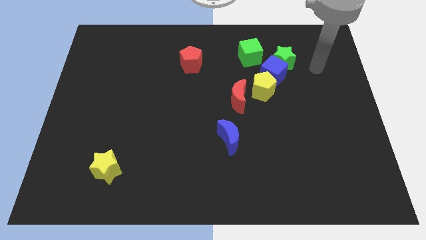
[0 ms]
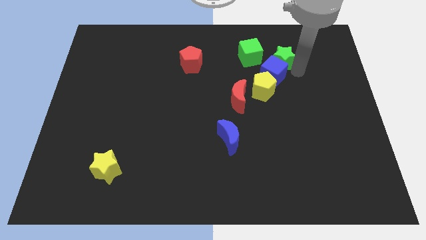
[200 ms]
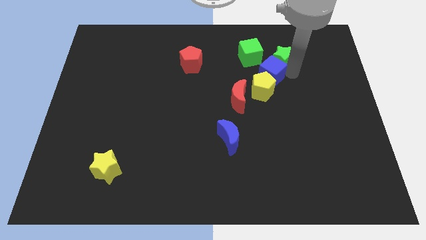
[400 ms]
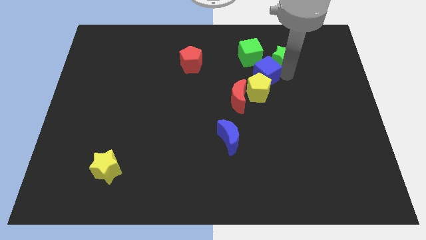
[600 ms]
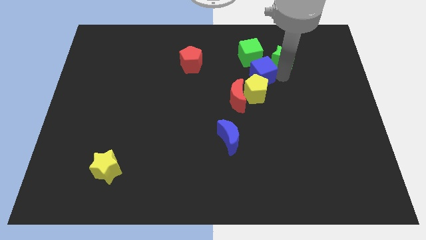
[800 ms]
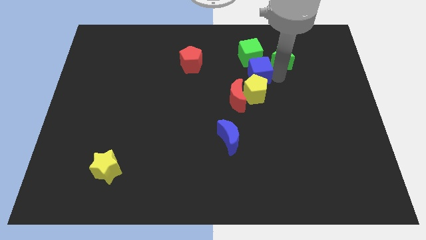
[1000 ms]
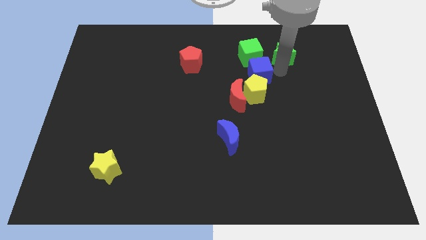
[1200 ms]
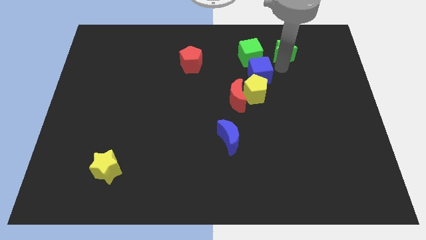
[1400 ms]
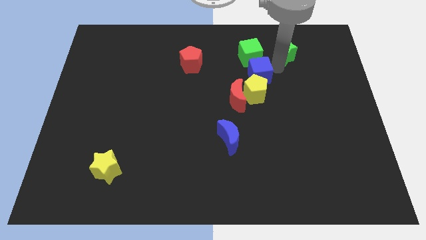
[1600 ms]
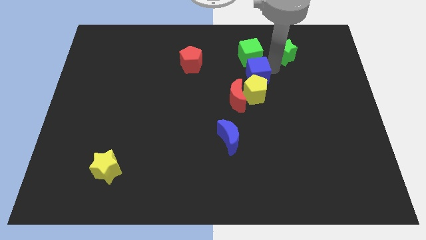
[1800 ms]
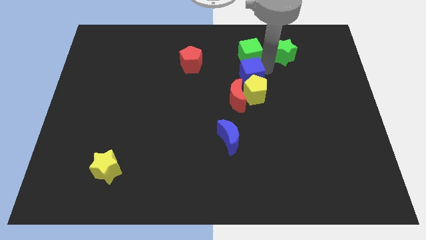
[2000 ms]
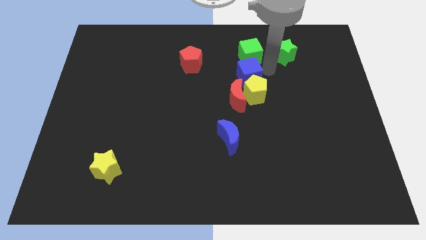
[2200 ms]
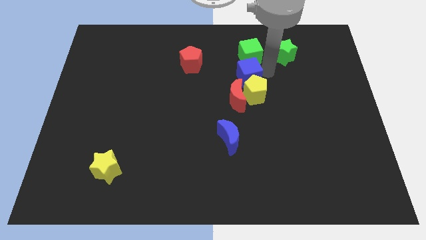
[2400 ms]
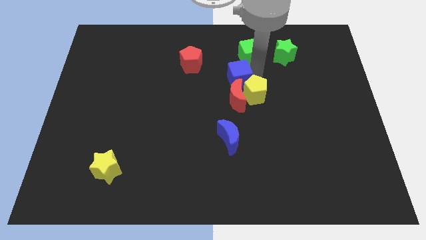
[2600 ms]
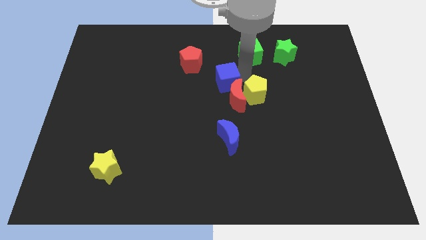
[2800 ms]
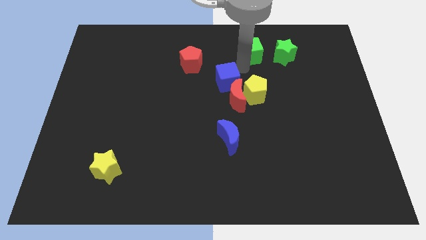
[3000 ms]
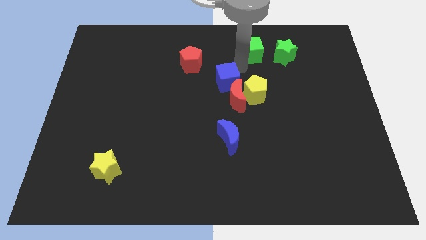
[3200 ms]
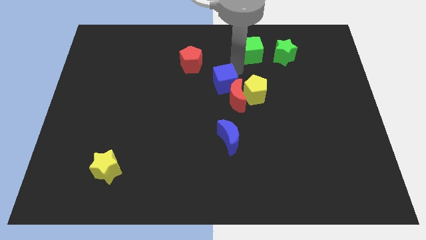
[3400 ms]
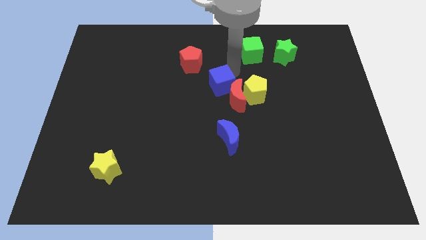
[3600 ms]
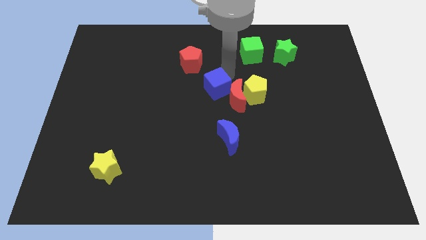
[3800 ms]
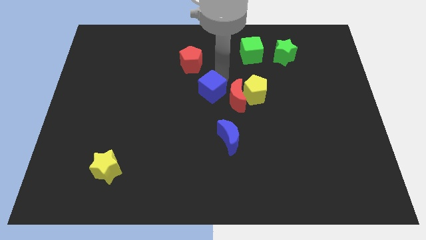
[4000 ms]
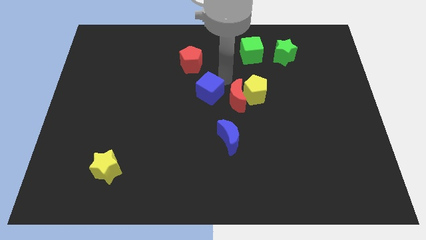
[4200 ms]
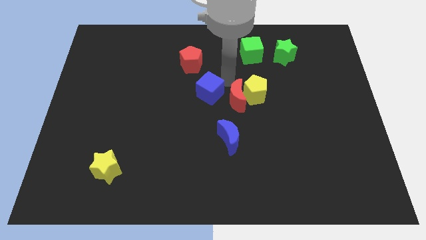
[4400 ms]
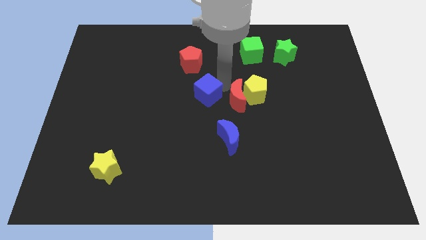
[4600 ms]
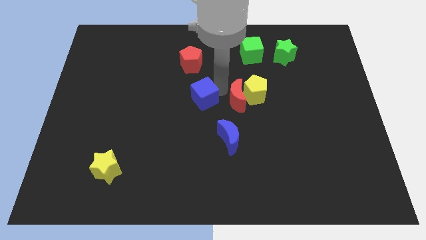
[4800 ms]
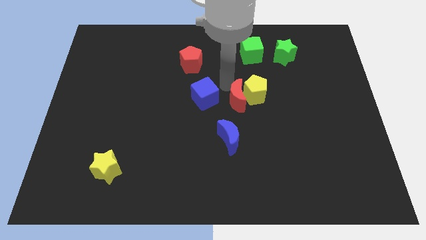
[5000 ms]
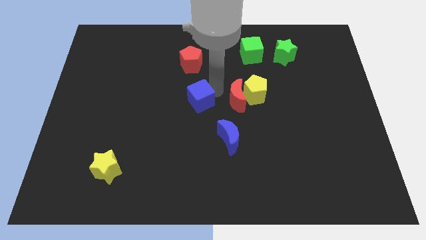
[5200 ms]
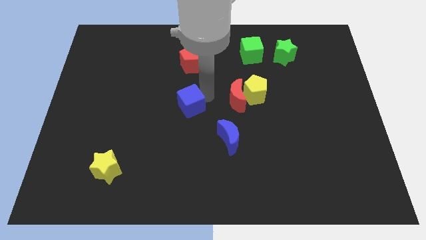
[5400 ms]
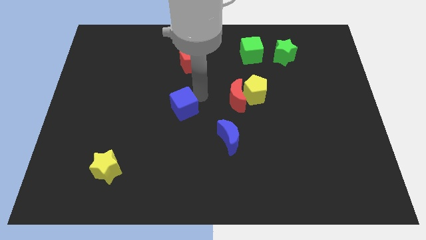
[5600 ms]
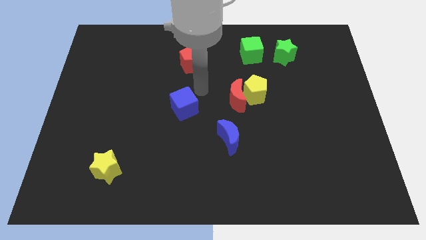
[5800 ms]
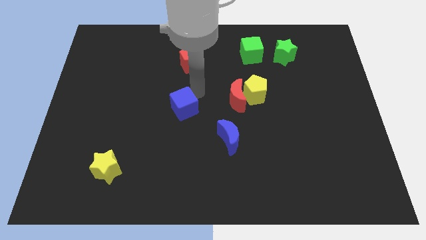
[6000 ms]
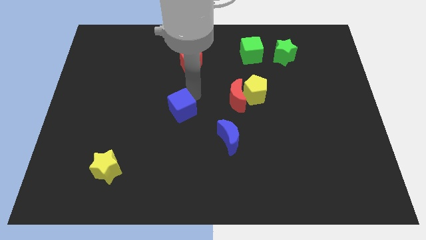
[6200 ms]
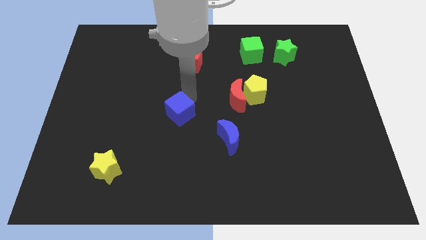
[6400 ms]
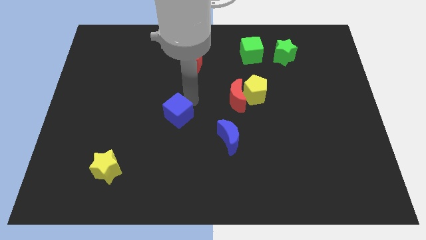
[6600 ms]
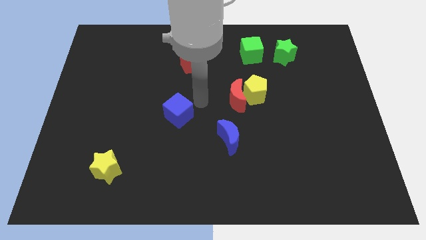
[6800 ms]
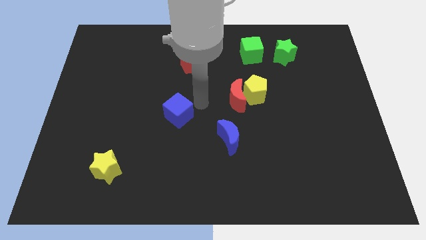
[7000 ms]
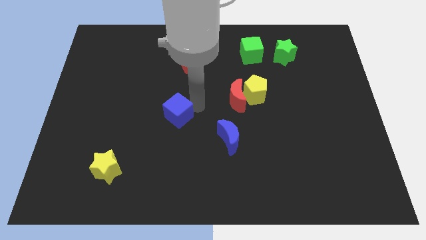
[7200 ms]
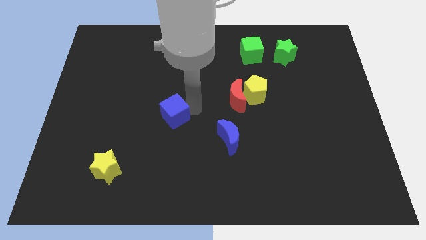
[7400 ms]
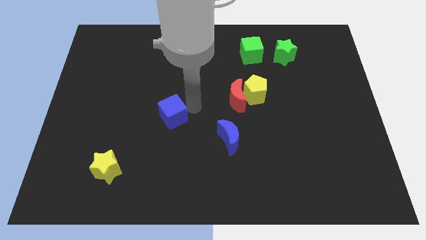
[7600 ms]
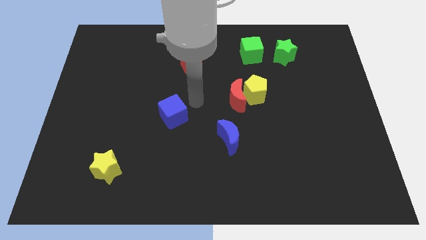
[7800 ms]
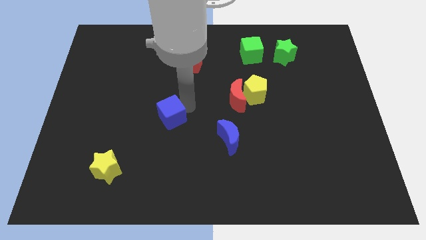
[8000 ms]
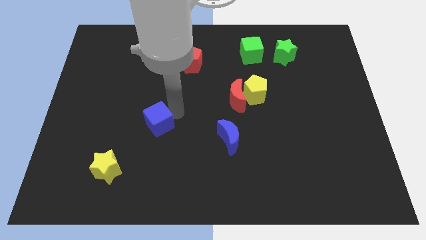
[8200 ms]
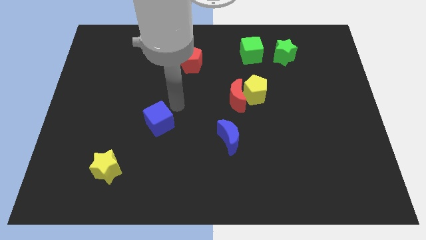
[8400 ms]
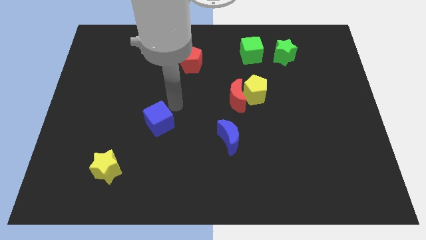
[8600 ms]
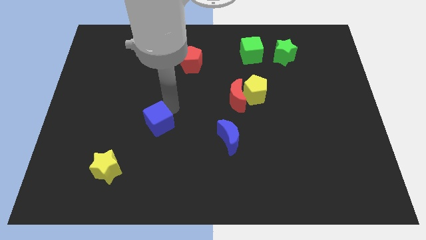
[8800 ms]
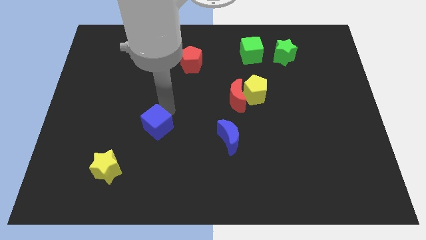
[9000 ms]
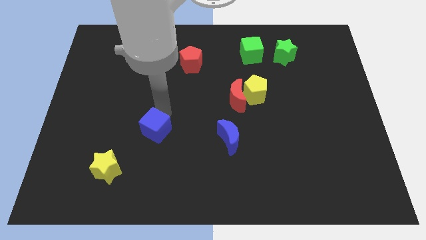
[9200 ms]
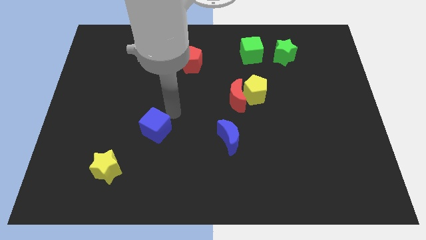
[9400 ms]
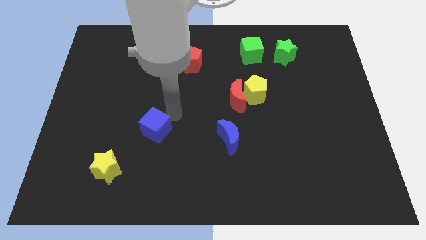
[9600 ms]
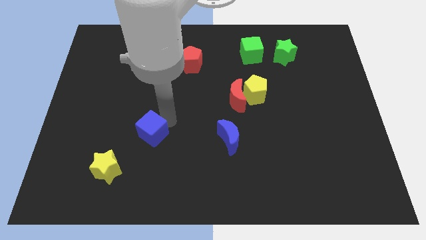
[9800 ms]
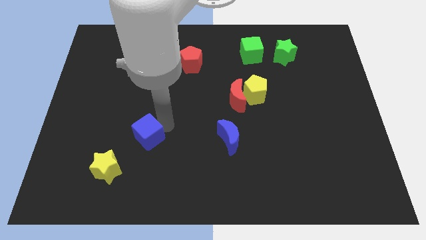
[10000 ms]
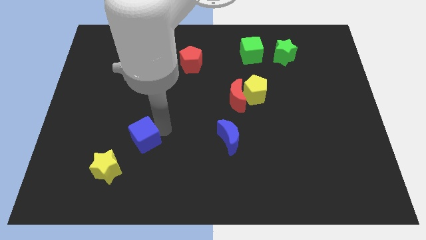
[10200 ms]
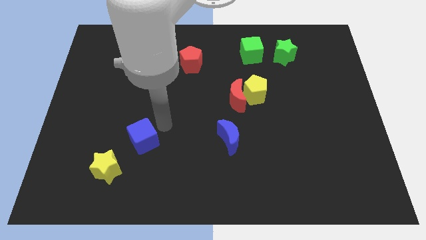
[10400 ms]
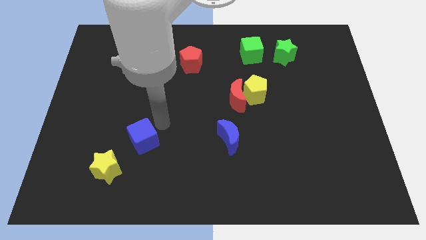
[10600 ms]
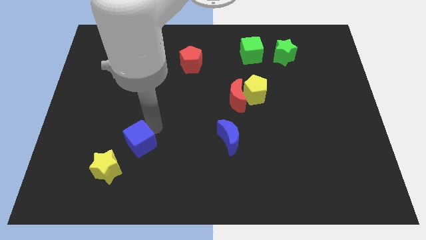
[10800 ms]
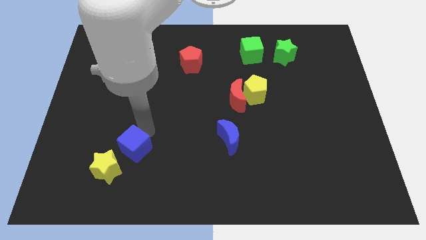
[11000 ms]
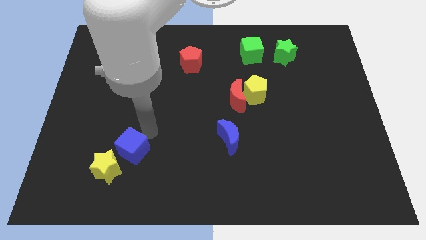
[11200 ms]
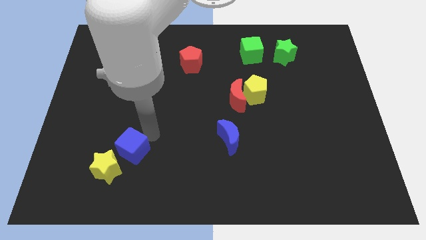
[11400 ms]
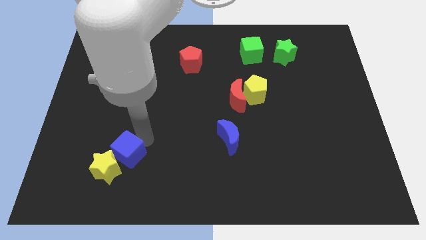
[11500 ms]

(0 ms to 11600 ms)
slide the blue cube to the yellow star

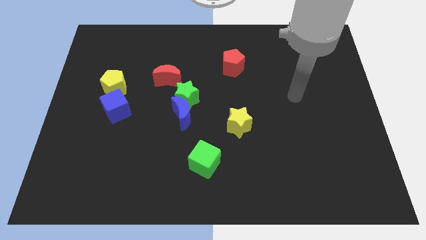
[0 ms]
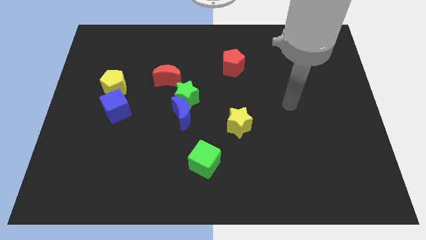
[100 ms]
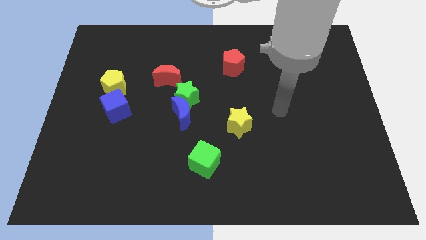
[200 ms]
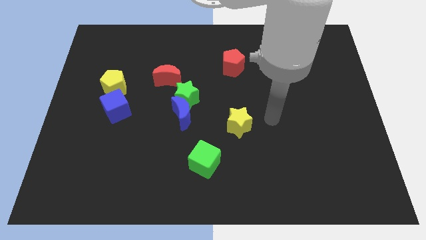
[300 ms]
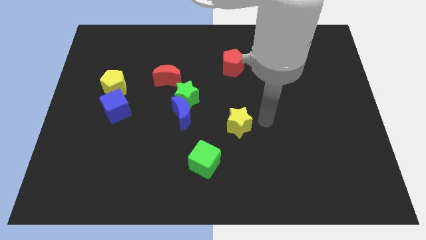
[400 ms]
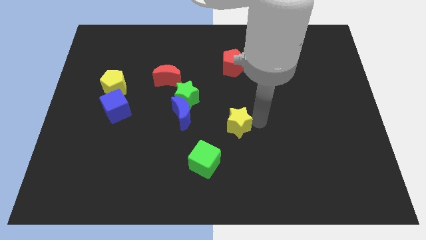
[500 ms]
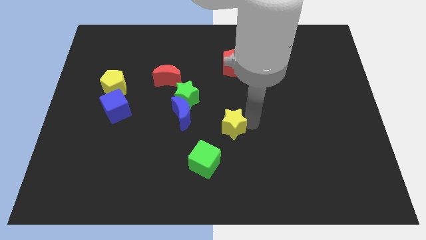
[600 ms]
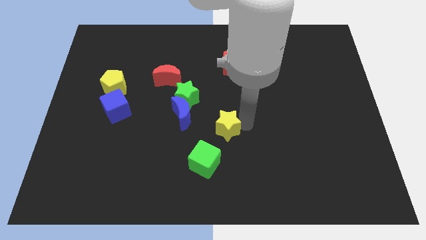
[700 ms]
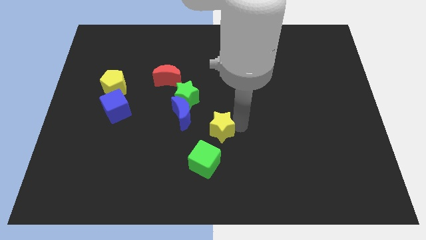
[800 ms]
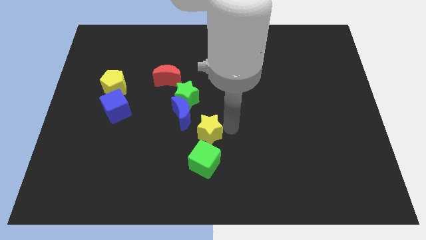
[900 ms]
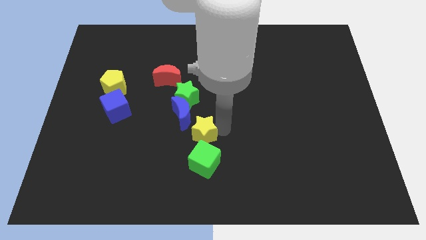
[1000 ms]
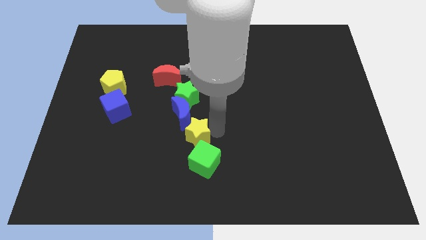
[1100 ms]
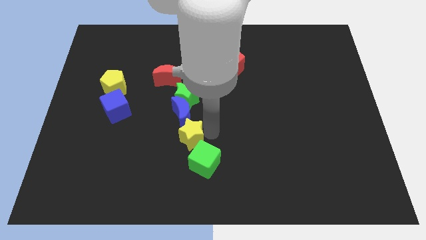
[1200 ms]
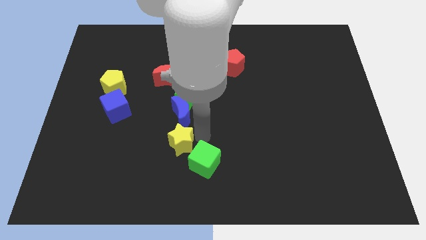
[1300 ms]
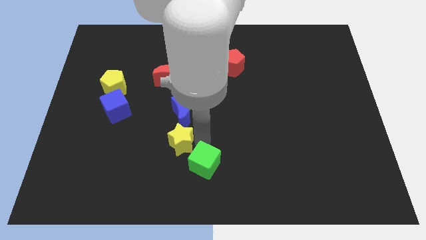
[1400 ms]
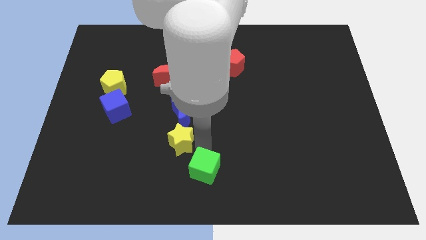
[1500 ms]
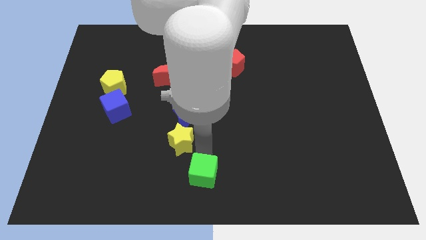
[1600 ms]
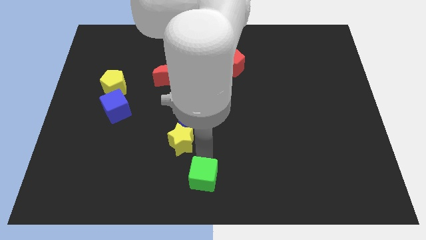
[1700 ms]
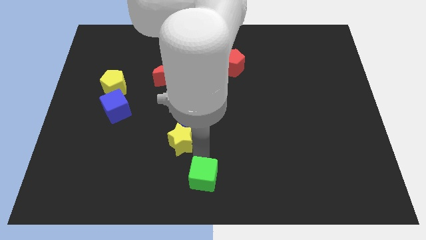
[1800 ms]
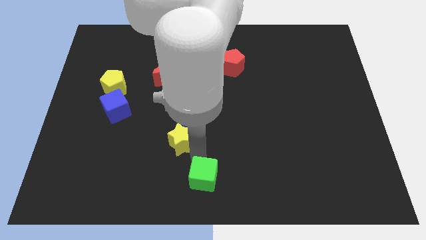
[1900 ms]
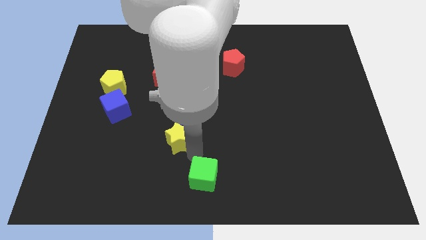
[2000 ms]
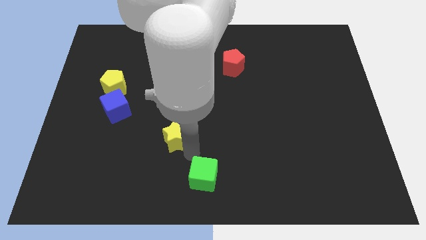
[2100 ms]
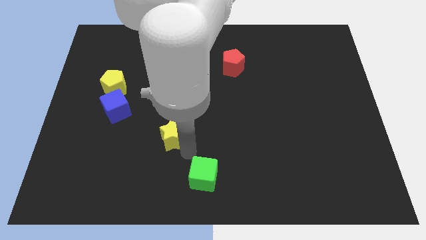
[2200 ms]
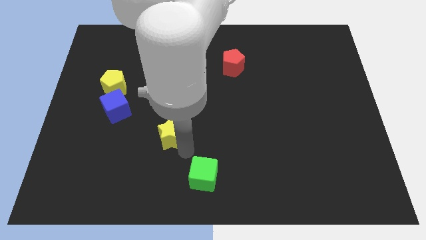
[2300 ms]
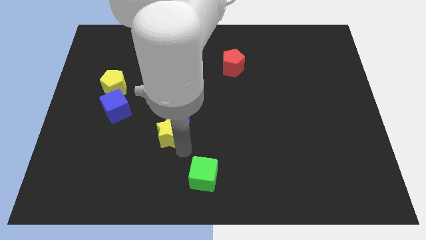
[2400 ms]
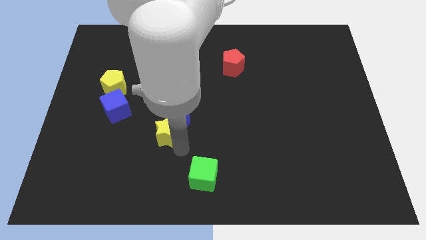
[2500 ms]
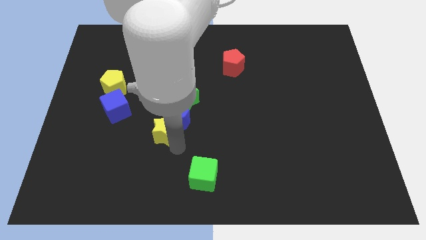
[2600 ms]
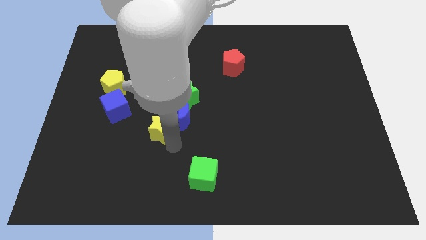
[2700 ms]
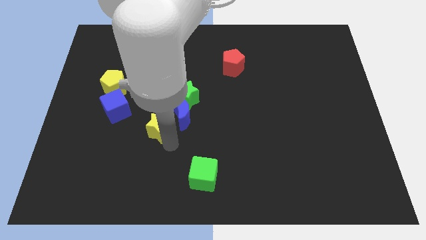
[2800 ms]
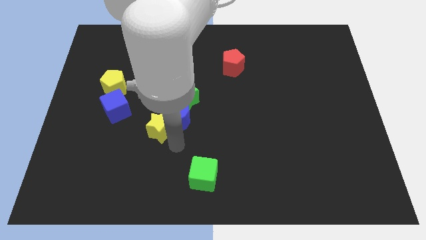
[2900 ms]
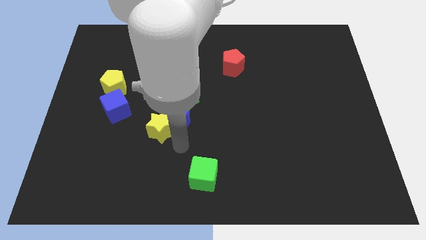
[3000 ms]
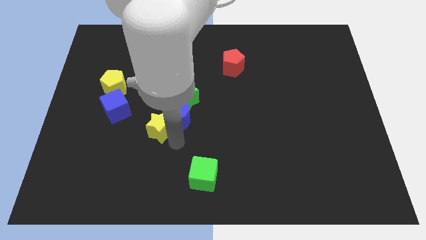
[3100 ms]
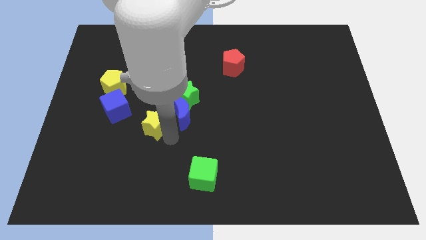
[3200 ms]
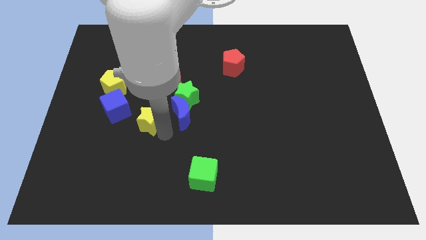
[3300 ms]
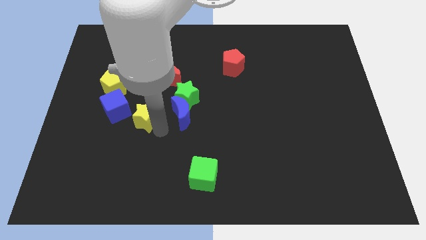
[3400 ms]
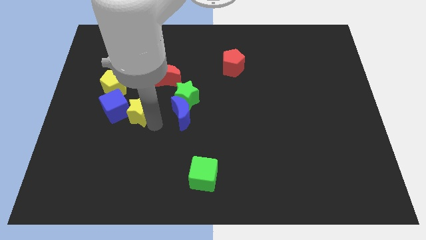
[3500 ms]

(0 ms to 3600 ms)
put the yellow star close to the blue cube
